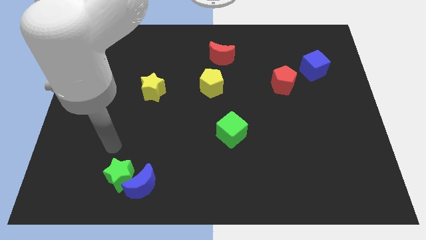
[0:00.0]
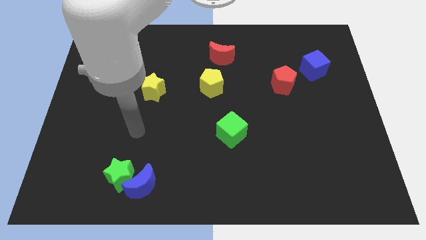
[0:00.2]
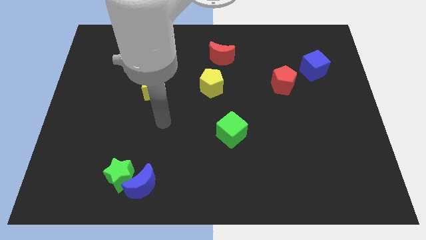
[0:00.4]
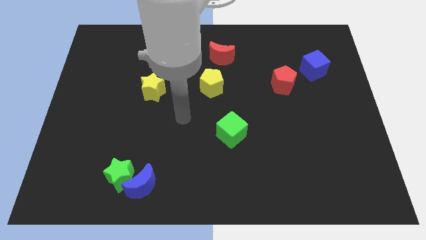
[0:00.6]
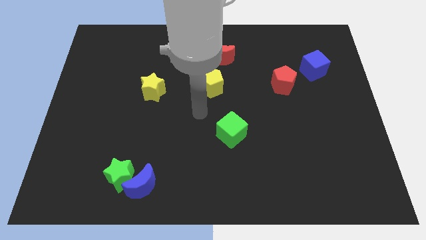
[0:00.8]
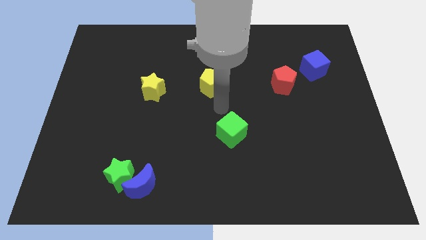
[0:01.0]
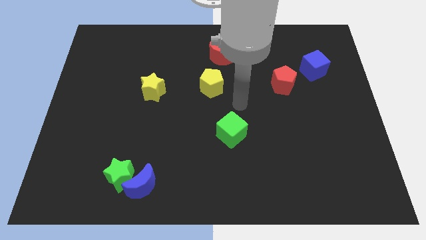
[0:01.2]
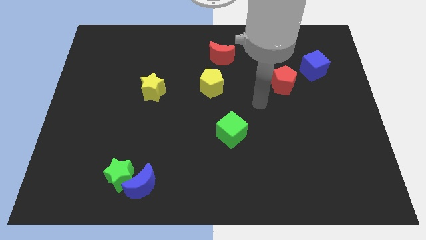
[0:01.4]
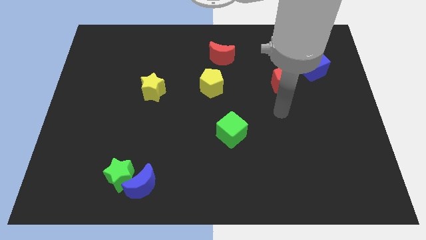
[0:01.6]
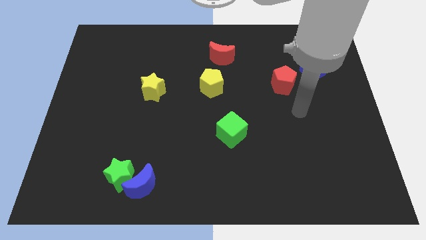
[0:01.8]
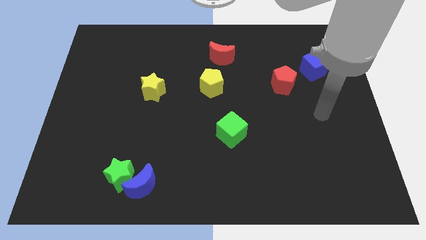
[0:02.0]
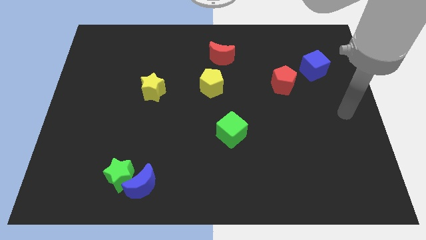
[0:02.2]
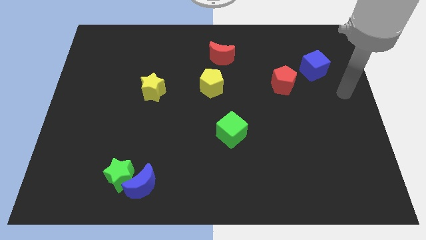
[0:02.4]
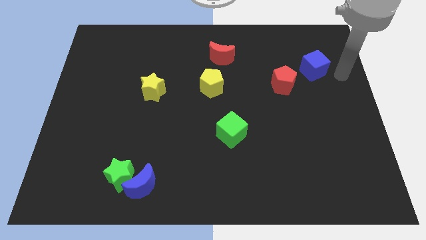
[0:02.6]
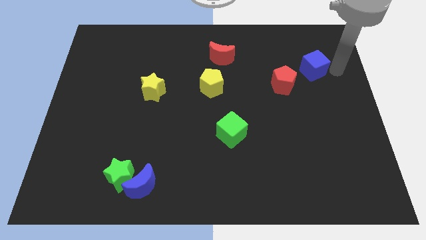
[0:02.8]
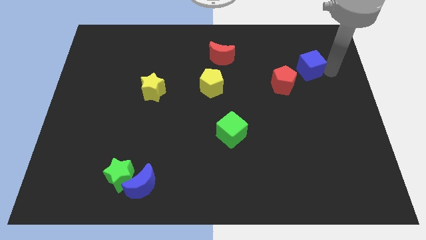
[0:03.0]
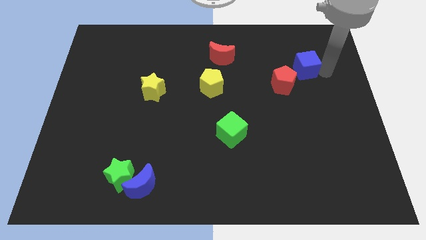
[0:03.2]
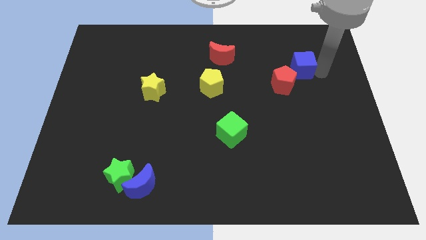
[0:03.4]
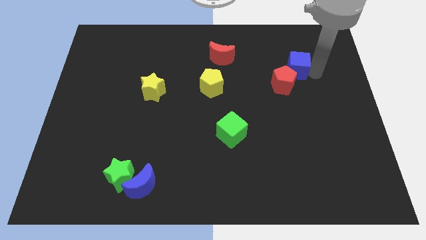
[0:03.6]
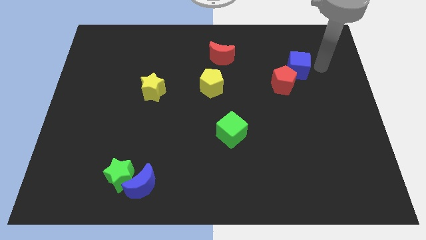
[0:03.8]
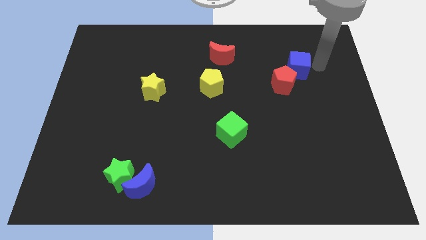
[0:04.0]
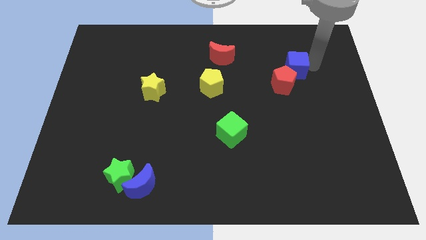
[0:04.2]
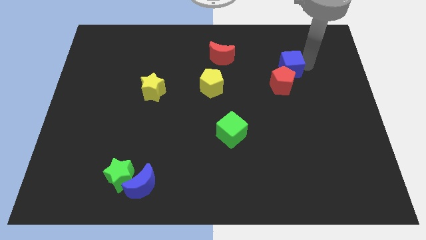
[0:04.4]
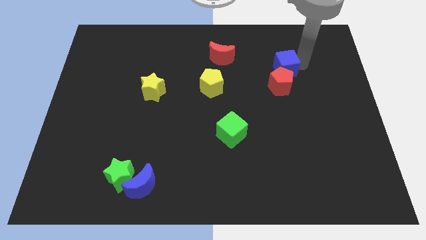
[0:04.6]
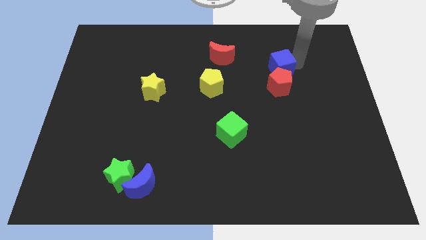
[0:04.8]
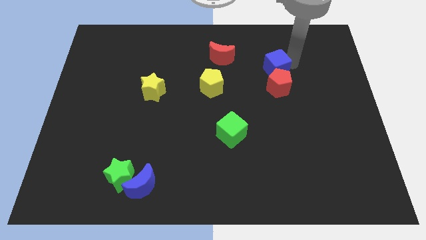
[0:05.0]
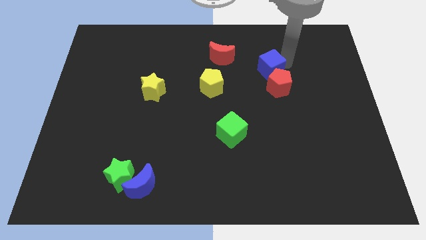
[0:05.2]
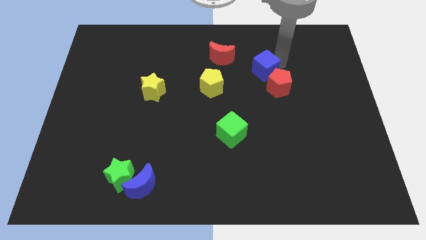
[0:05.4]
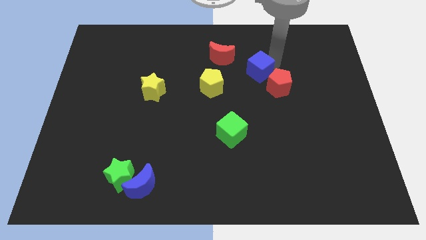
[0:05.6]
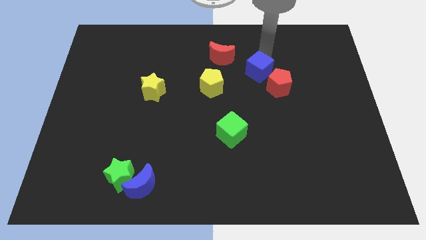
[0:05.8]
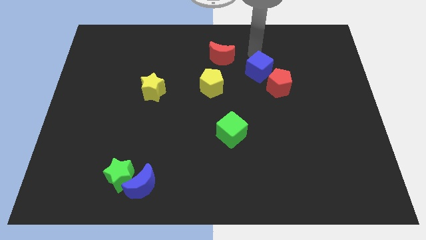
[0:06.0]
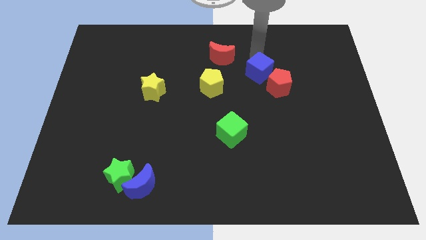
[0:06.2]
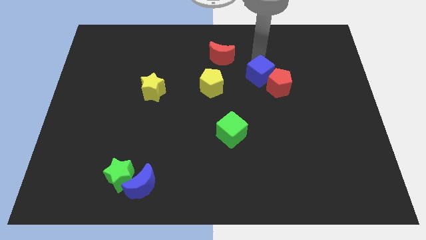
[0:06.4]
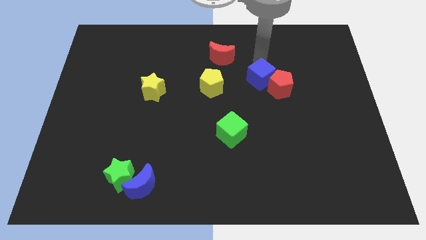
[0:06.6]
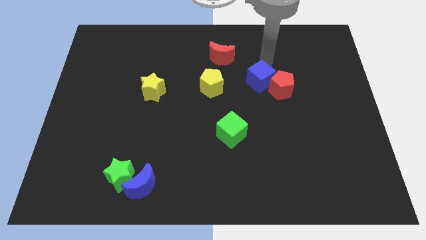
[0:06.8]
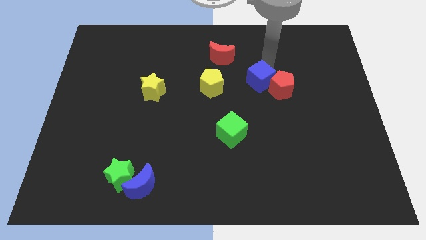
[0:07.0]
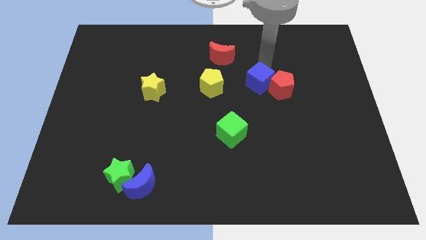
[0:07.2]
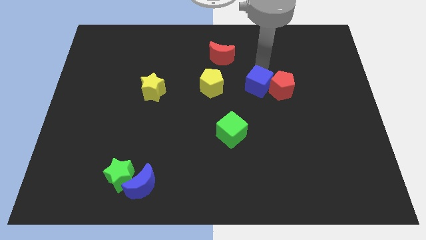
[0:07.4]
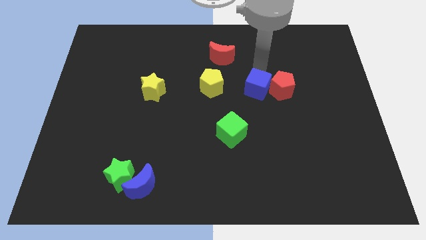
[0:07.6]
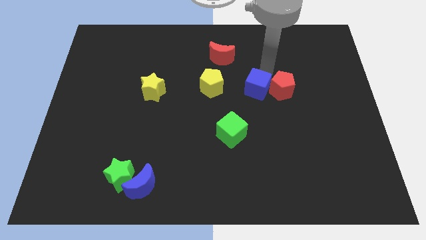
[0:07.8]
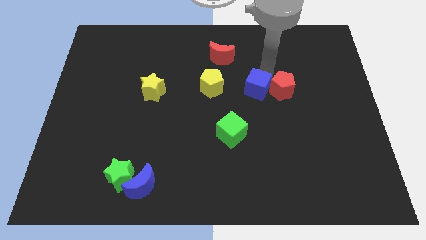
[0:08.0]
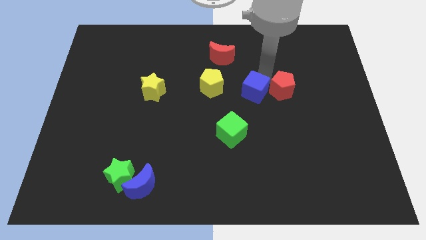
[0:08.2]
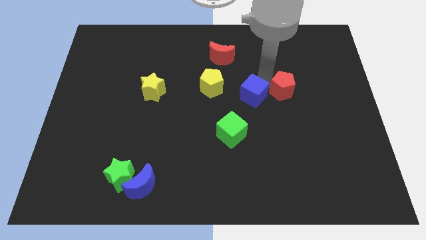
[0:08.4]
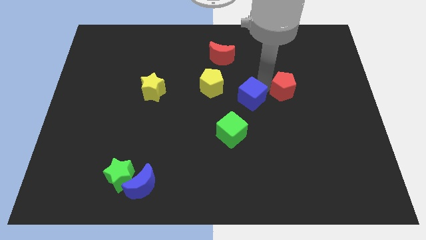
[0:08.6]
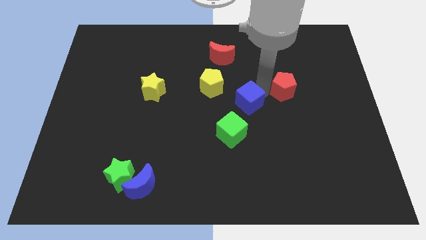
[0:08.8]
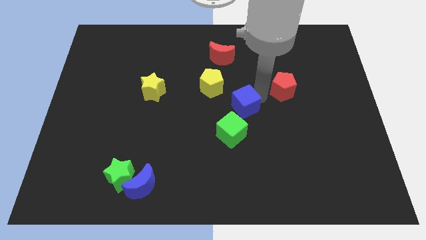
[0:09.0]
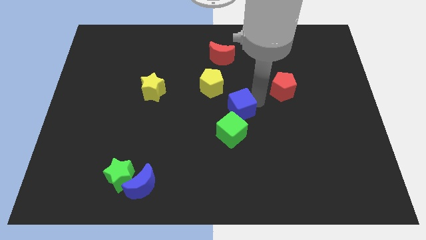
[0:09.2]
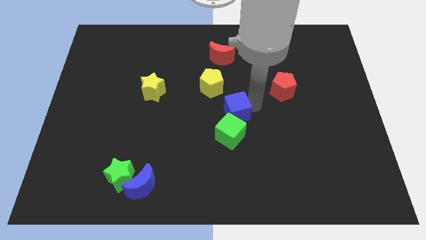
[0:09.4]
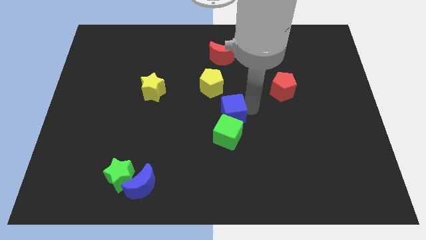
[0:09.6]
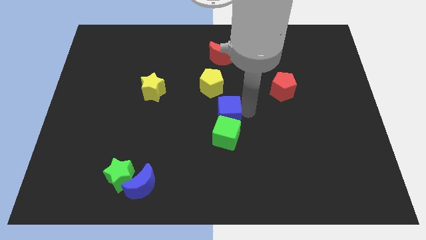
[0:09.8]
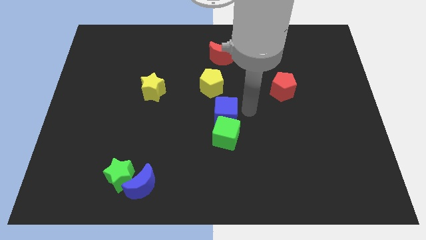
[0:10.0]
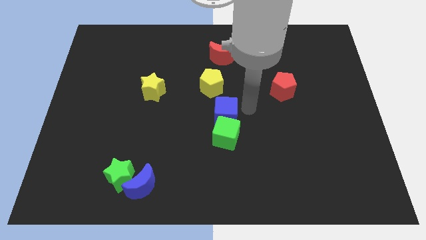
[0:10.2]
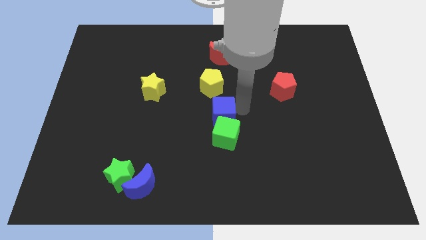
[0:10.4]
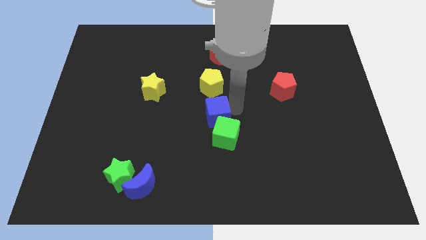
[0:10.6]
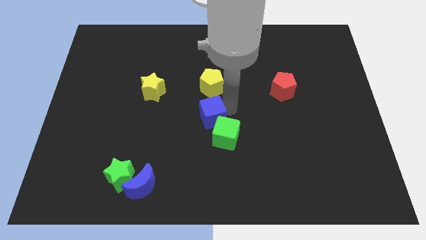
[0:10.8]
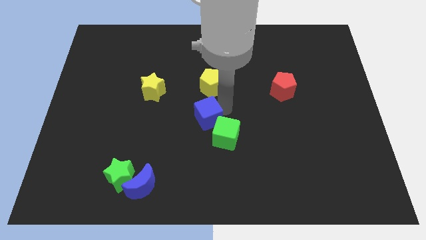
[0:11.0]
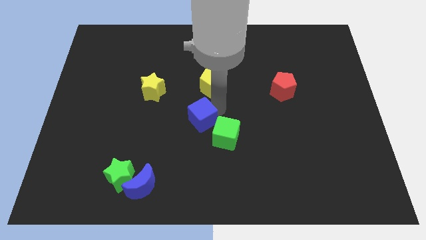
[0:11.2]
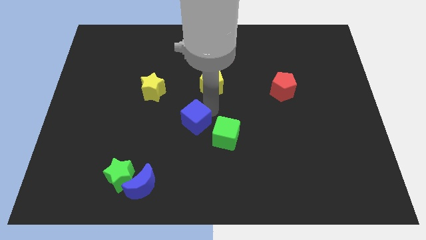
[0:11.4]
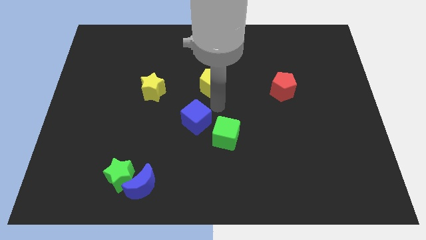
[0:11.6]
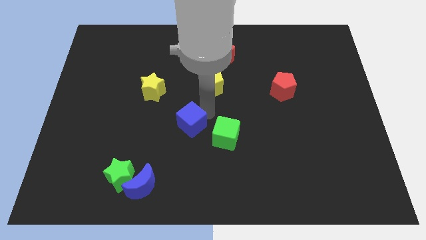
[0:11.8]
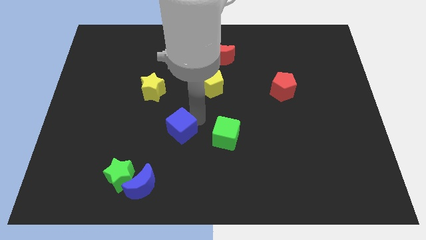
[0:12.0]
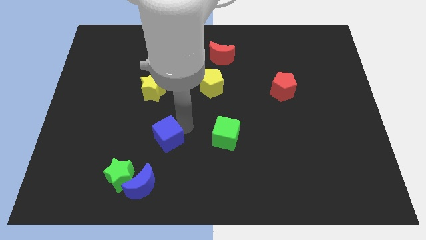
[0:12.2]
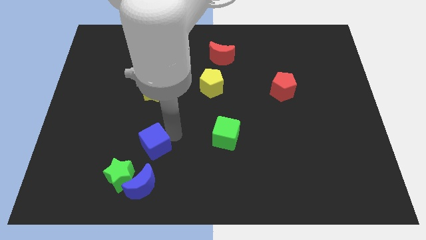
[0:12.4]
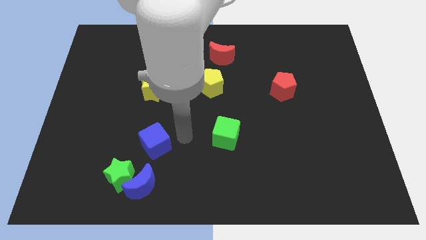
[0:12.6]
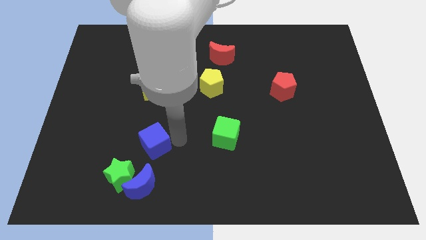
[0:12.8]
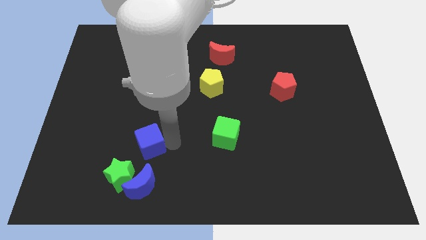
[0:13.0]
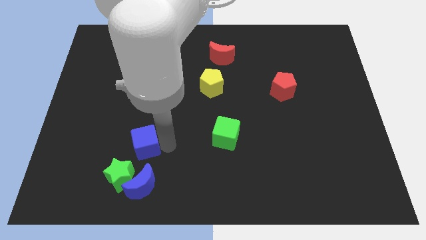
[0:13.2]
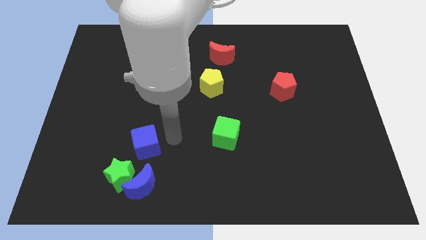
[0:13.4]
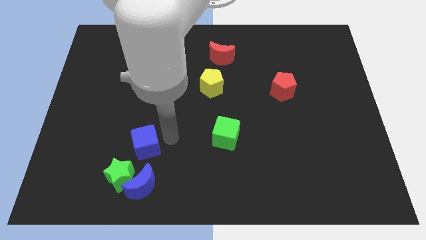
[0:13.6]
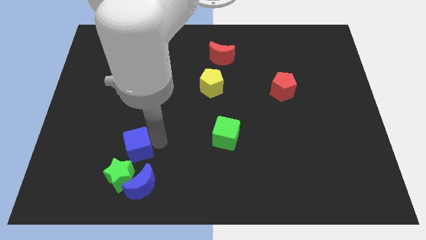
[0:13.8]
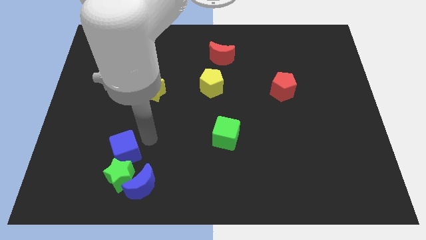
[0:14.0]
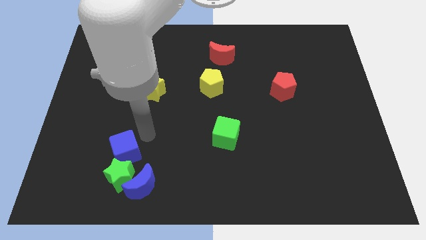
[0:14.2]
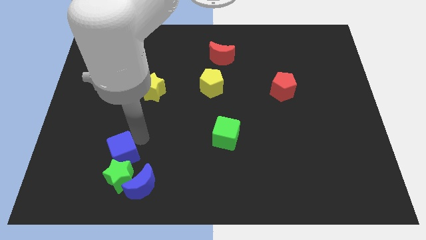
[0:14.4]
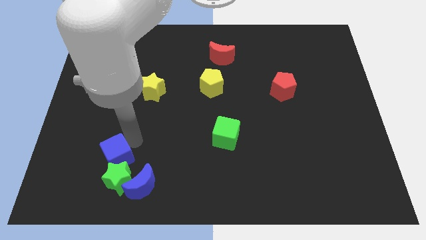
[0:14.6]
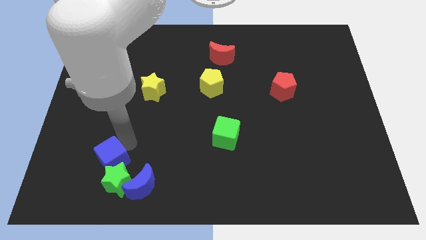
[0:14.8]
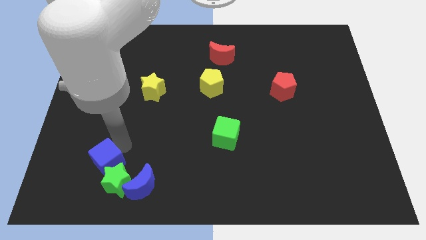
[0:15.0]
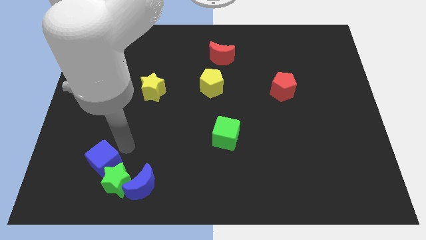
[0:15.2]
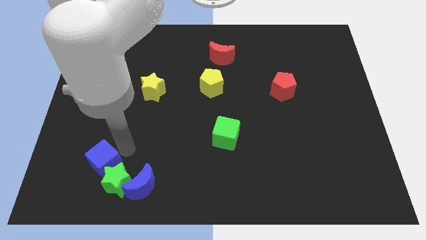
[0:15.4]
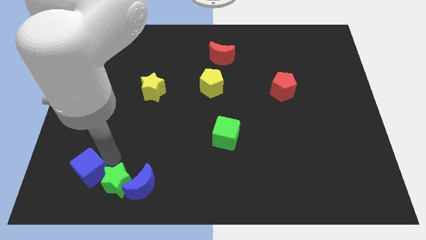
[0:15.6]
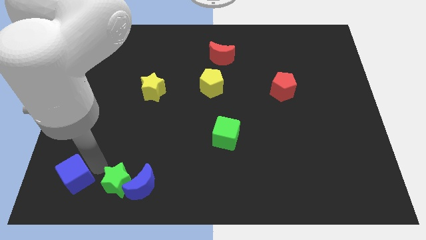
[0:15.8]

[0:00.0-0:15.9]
put the blue cube to the bottom left of the board
